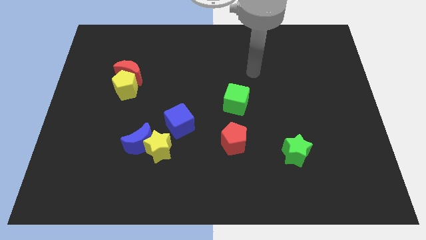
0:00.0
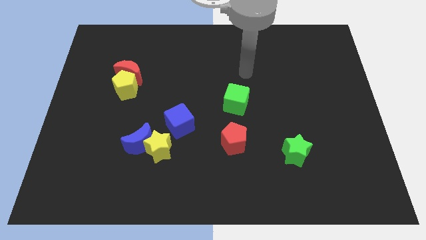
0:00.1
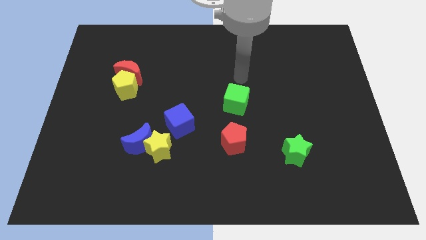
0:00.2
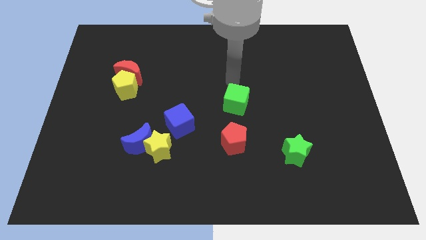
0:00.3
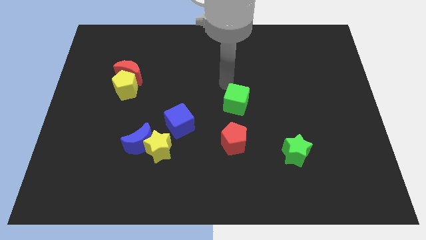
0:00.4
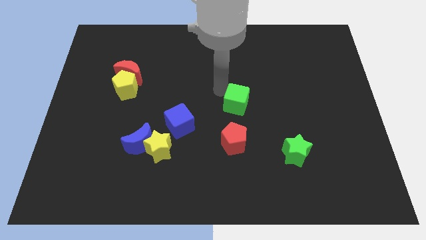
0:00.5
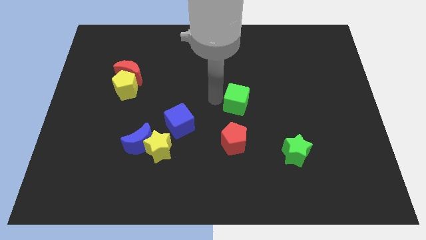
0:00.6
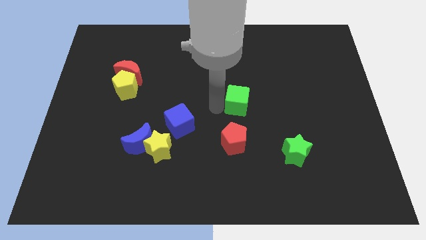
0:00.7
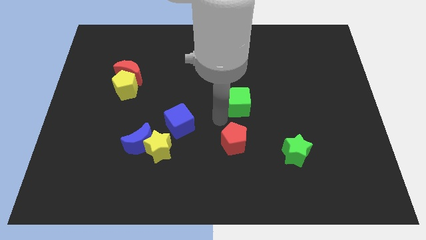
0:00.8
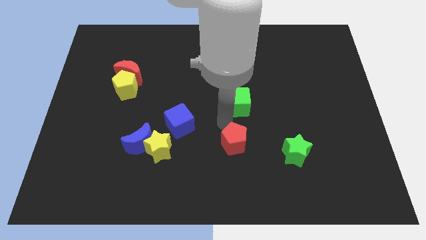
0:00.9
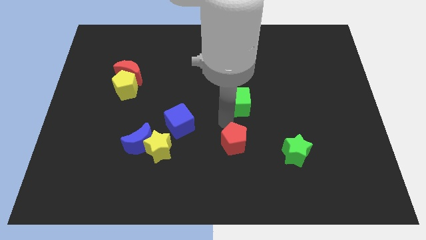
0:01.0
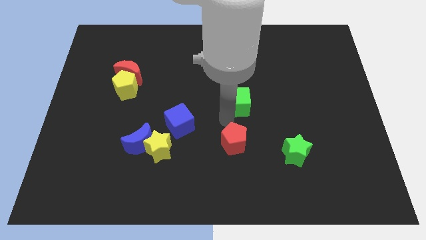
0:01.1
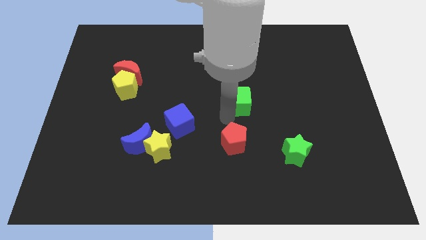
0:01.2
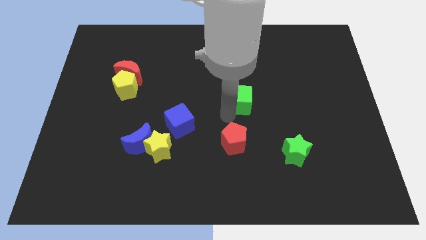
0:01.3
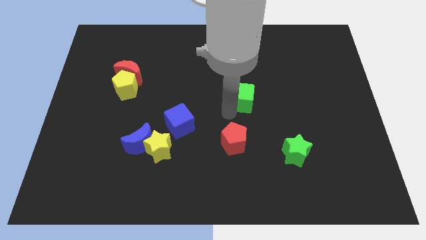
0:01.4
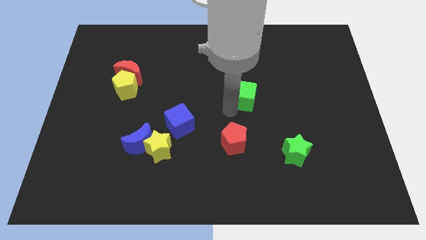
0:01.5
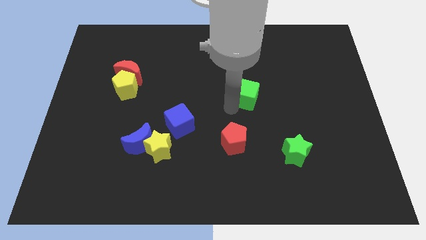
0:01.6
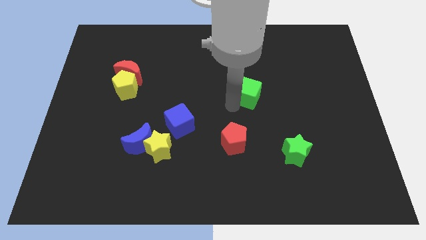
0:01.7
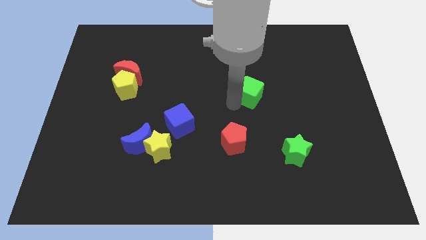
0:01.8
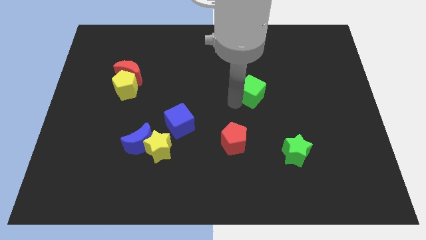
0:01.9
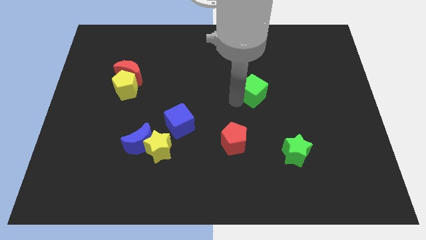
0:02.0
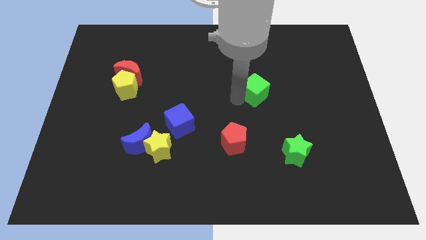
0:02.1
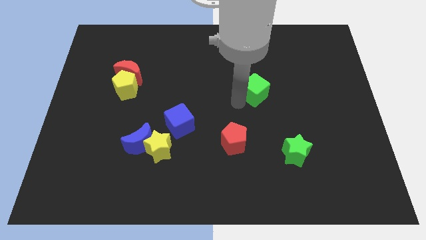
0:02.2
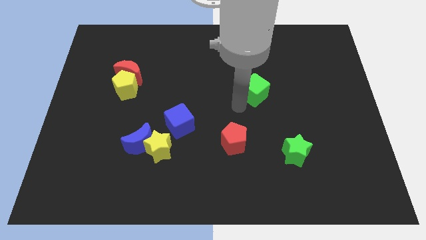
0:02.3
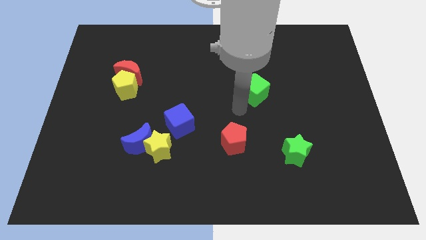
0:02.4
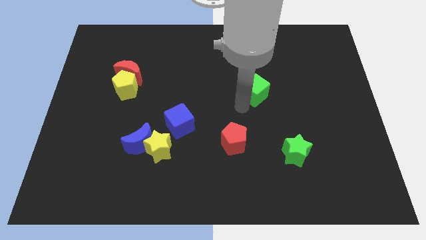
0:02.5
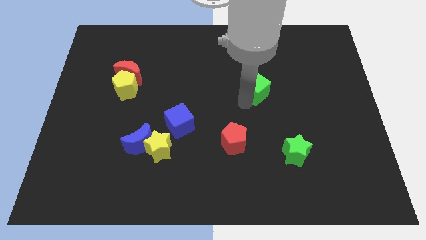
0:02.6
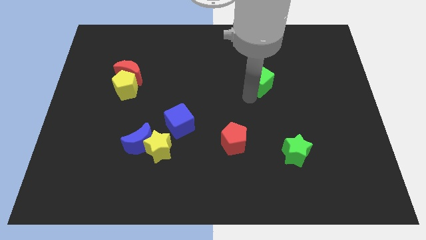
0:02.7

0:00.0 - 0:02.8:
slightly push the green cube up and then to the right

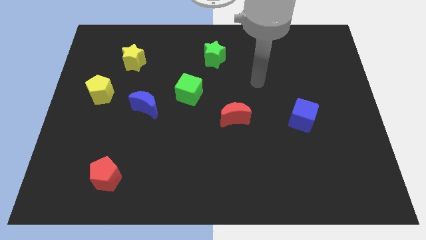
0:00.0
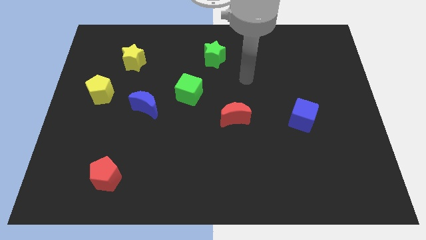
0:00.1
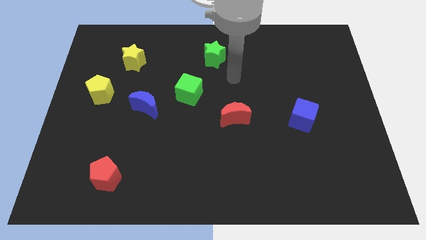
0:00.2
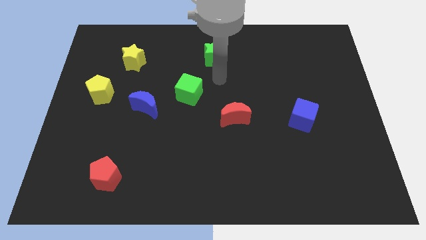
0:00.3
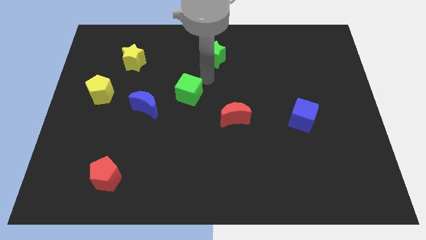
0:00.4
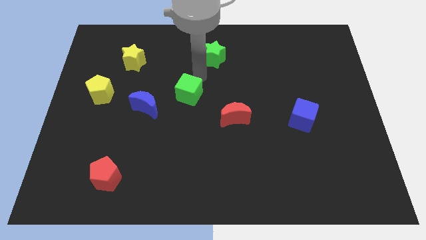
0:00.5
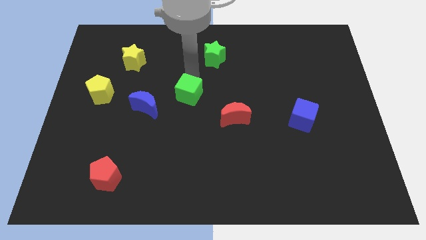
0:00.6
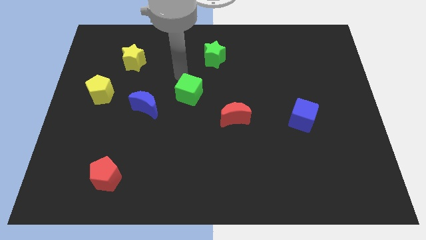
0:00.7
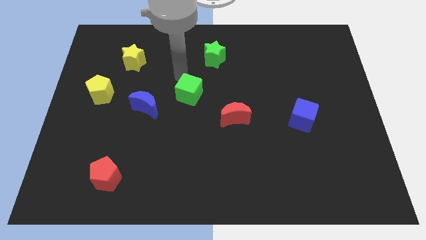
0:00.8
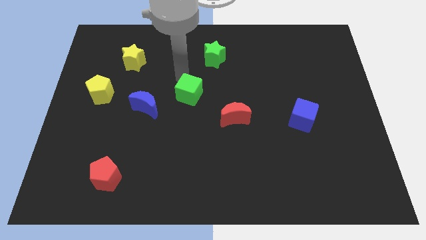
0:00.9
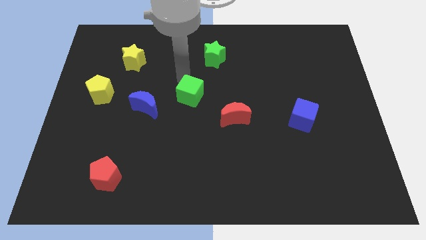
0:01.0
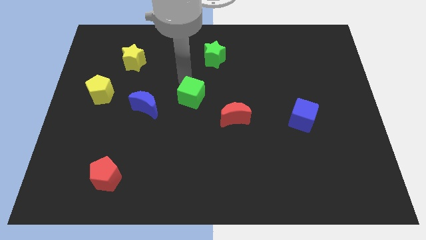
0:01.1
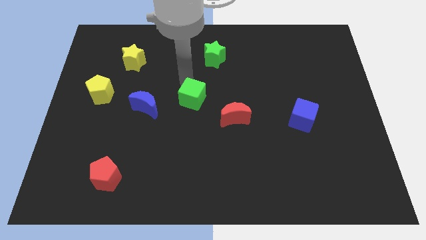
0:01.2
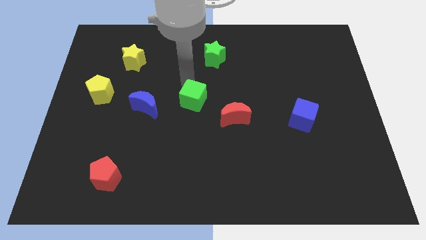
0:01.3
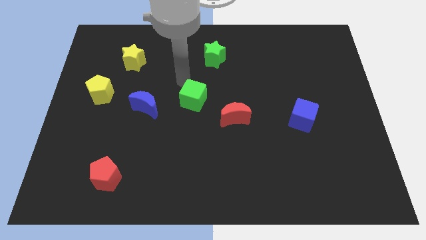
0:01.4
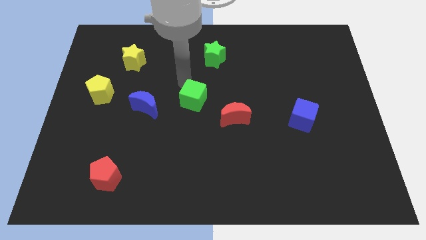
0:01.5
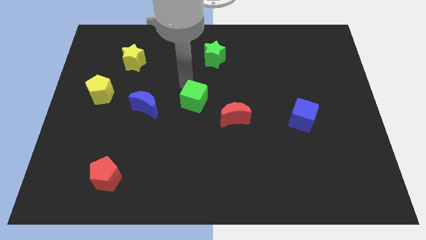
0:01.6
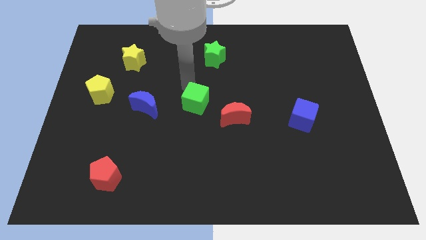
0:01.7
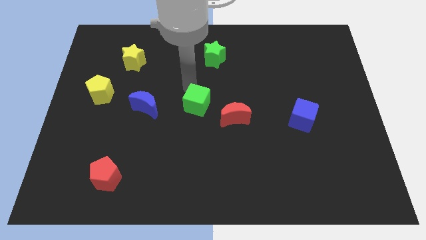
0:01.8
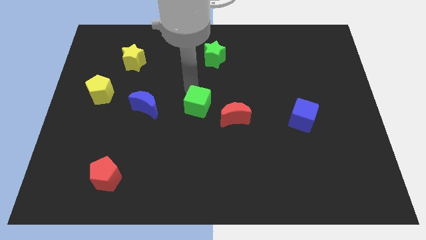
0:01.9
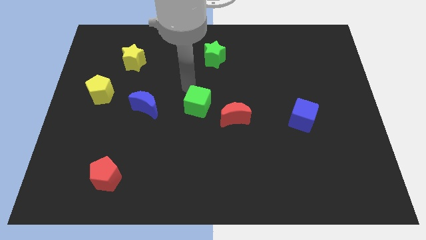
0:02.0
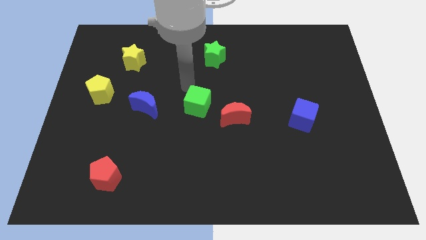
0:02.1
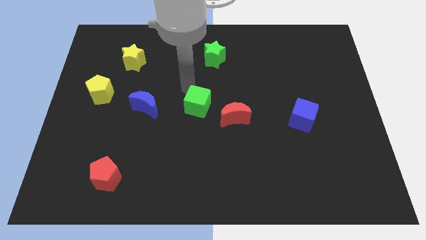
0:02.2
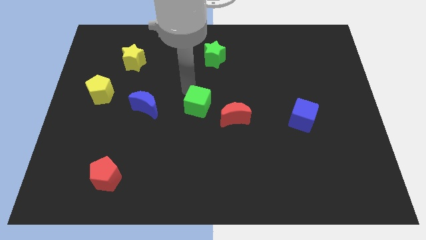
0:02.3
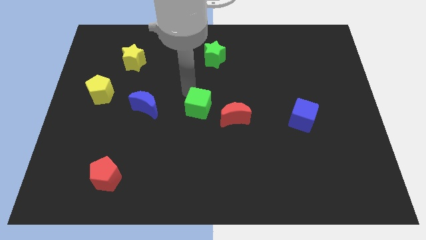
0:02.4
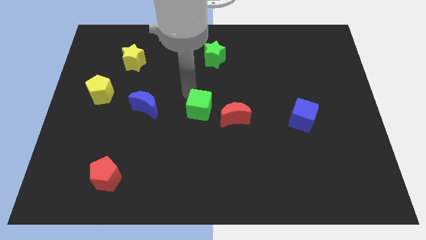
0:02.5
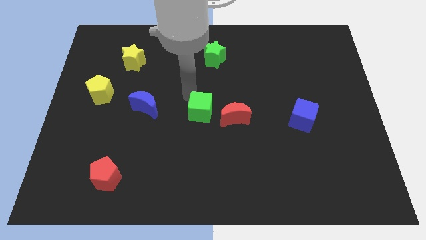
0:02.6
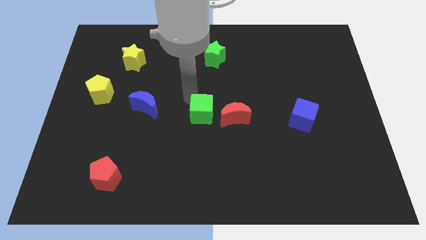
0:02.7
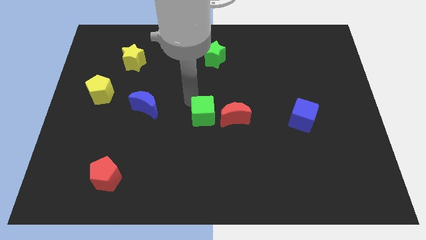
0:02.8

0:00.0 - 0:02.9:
slightly move the green cube down and right diagonally

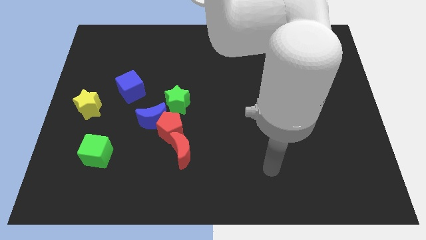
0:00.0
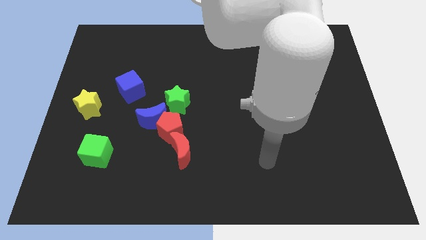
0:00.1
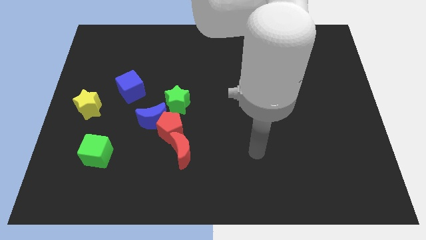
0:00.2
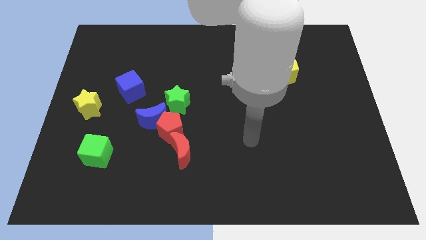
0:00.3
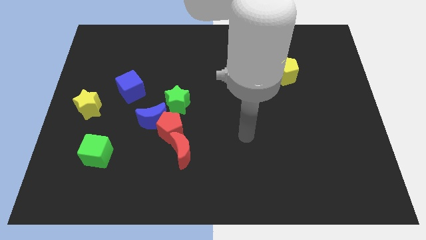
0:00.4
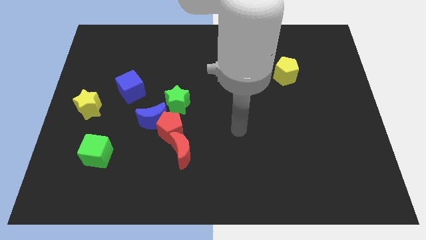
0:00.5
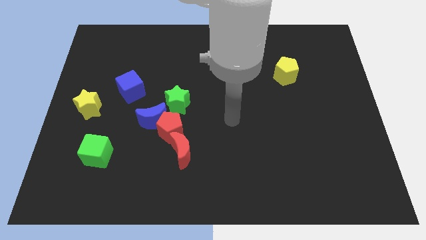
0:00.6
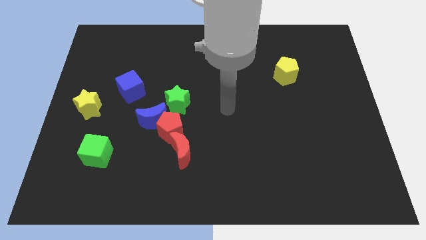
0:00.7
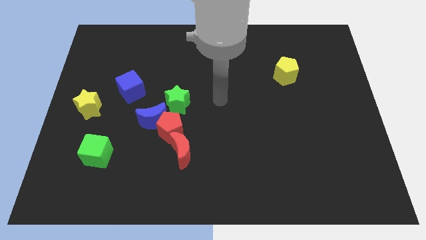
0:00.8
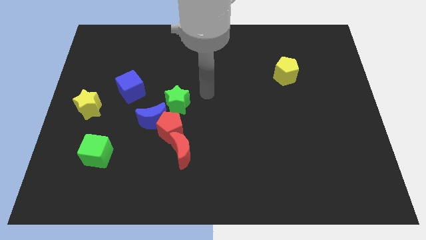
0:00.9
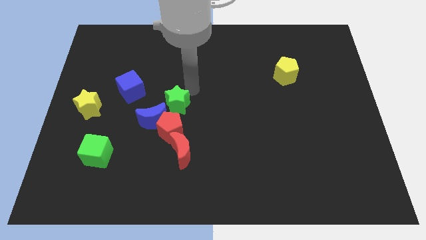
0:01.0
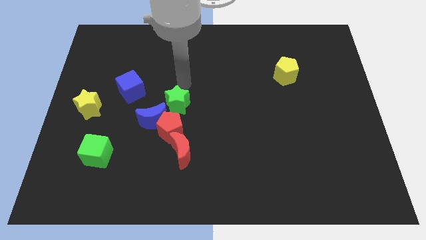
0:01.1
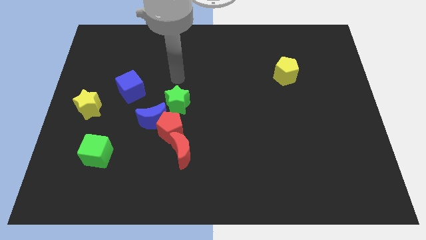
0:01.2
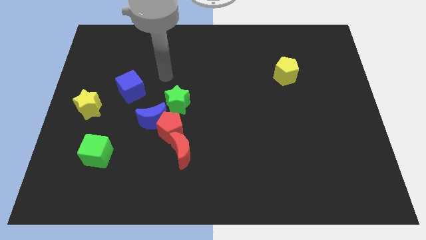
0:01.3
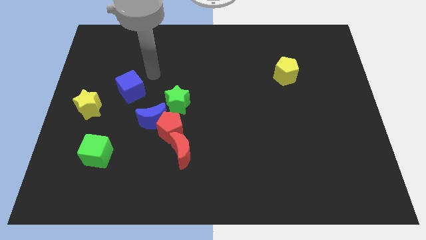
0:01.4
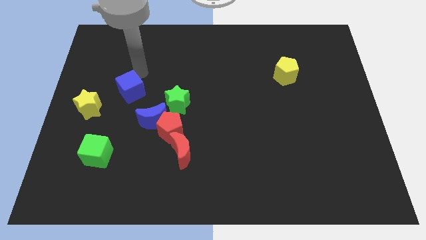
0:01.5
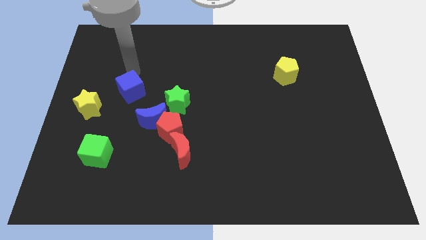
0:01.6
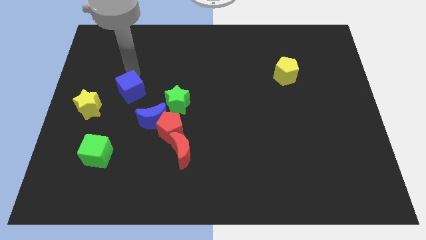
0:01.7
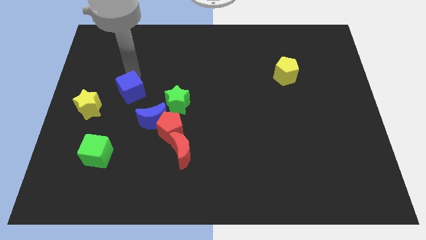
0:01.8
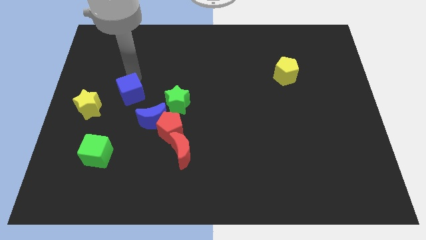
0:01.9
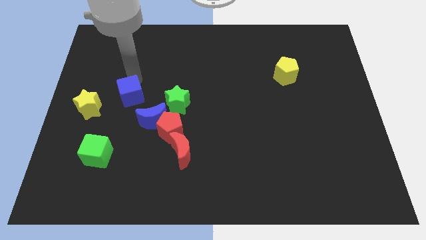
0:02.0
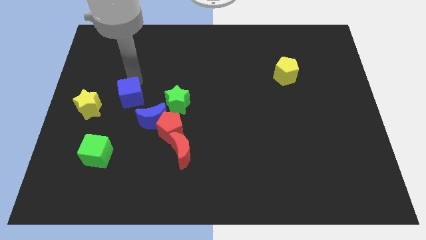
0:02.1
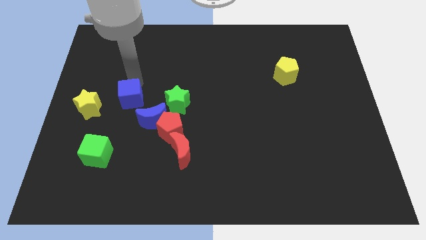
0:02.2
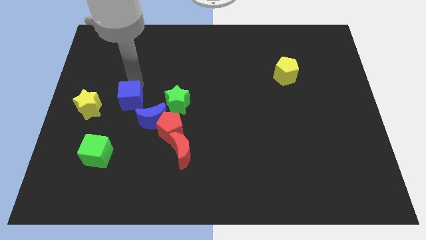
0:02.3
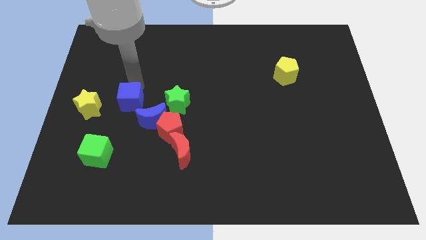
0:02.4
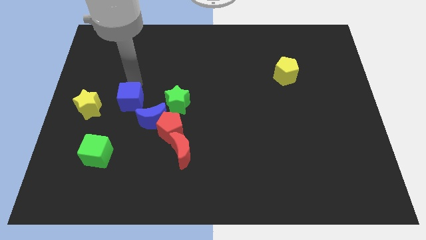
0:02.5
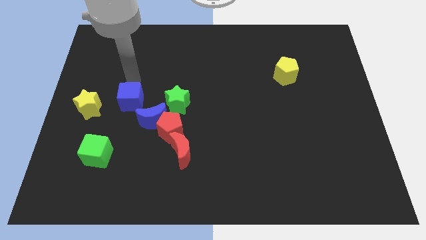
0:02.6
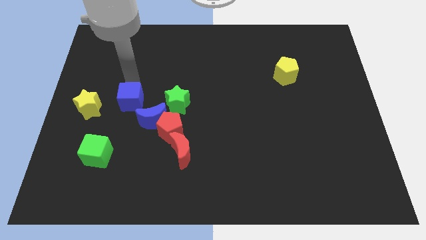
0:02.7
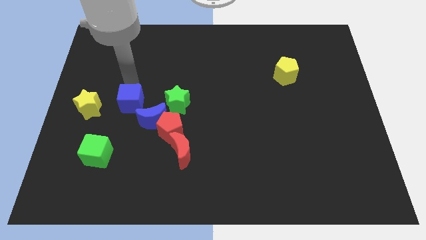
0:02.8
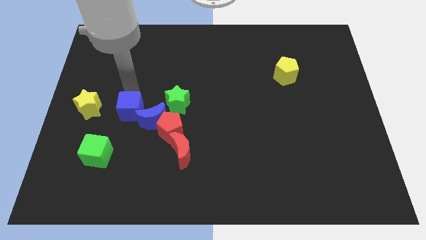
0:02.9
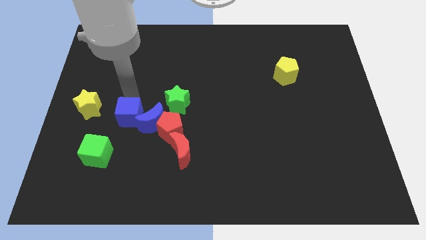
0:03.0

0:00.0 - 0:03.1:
move the blue cube down a bit
